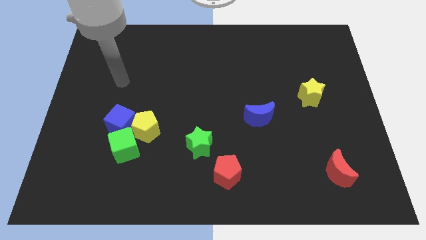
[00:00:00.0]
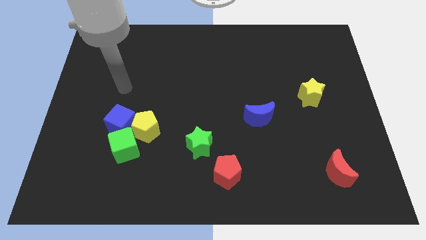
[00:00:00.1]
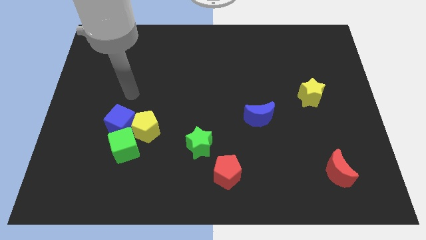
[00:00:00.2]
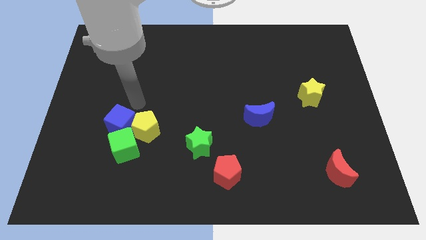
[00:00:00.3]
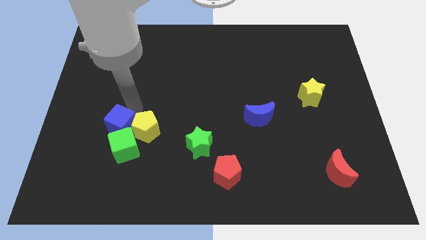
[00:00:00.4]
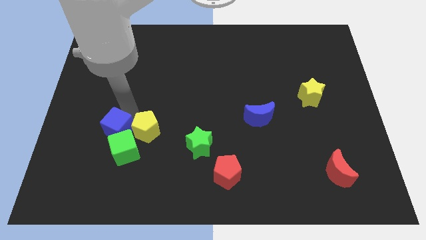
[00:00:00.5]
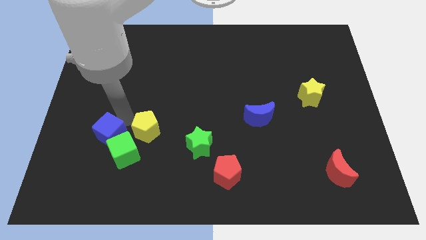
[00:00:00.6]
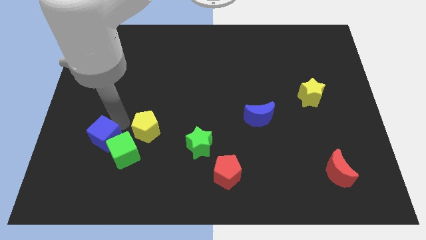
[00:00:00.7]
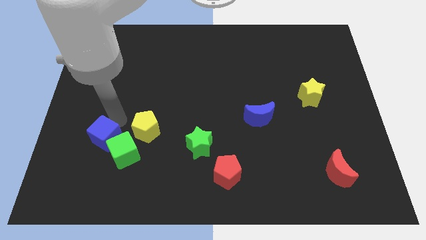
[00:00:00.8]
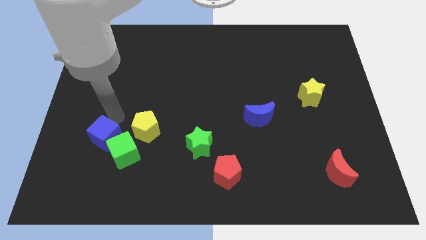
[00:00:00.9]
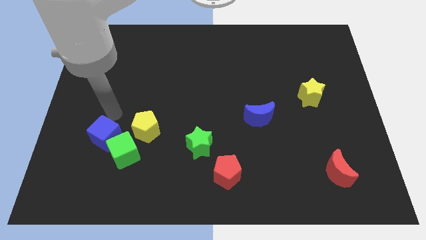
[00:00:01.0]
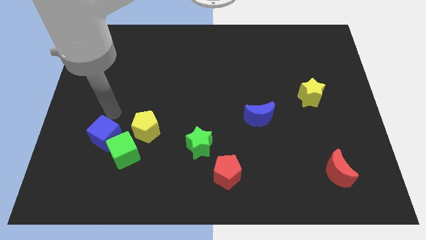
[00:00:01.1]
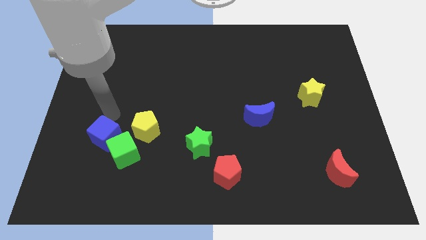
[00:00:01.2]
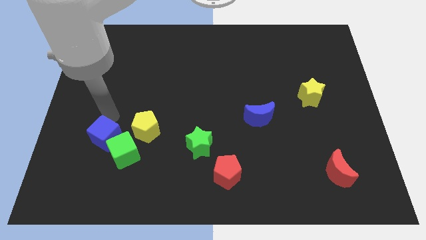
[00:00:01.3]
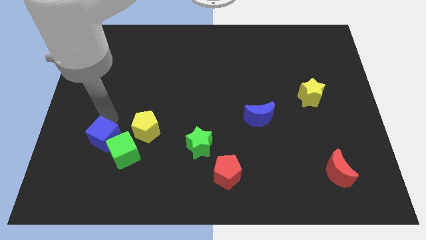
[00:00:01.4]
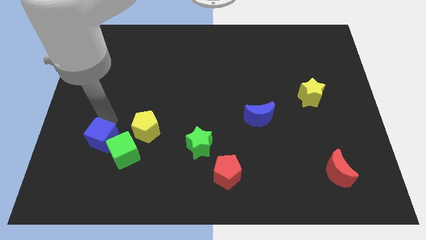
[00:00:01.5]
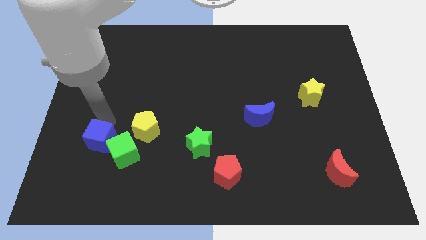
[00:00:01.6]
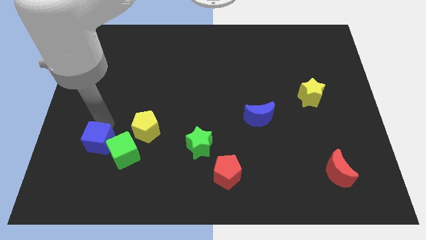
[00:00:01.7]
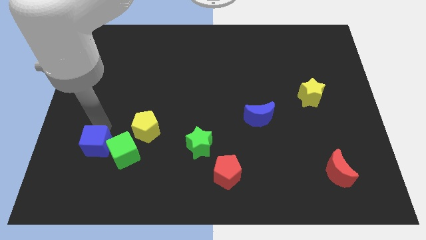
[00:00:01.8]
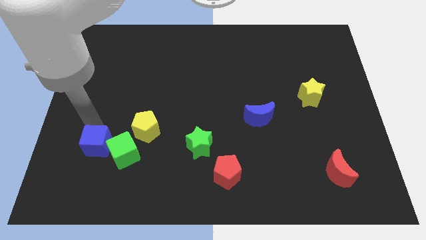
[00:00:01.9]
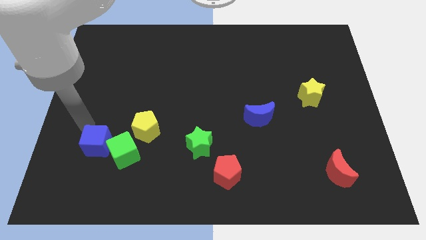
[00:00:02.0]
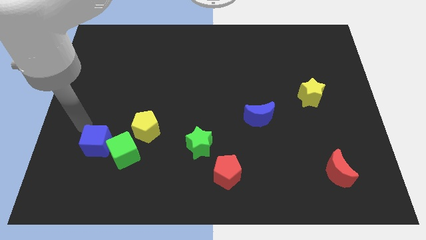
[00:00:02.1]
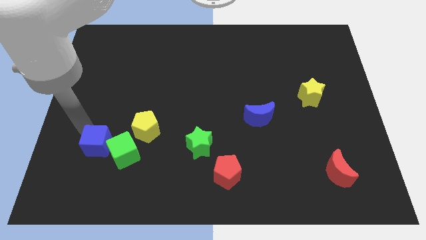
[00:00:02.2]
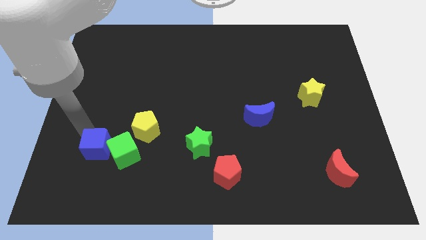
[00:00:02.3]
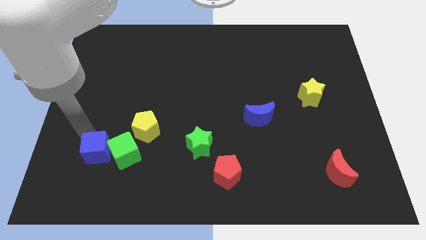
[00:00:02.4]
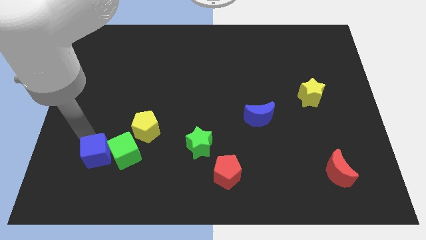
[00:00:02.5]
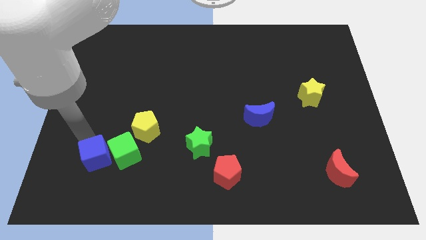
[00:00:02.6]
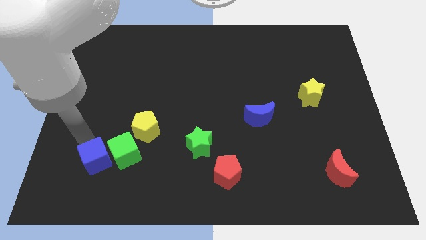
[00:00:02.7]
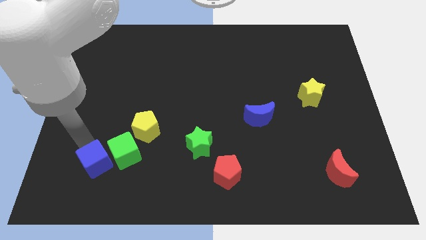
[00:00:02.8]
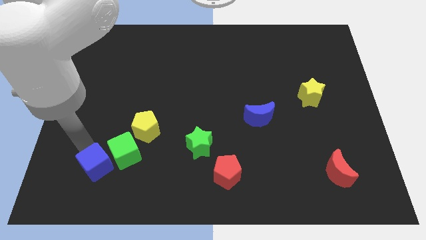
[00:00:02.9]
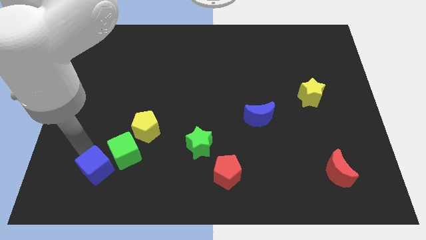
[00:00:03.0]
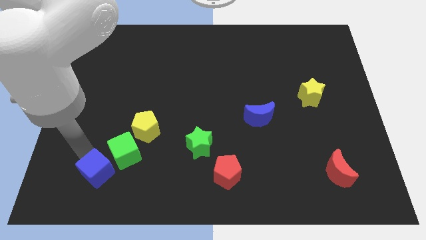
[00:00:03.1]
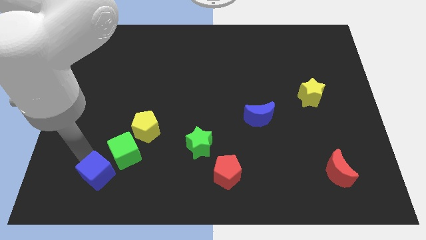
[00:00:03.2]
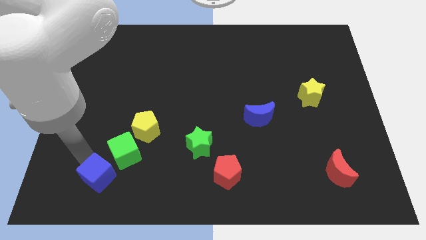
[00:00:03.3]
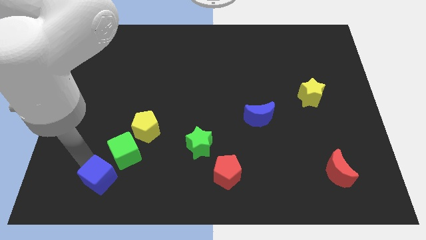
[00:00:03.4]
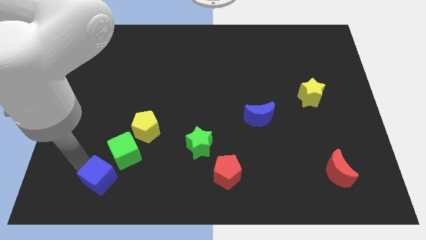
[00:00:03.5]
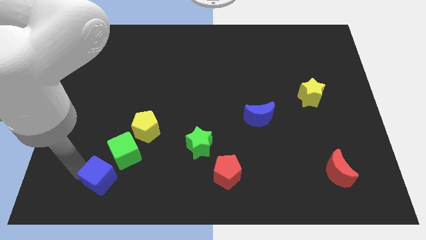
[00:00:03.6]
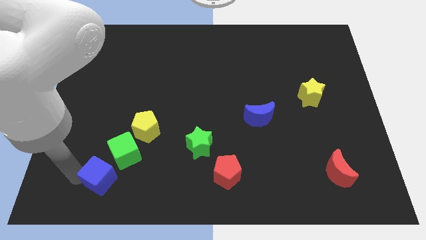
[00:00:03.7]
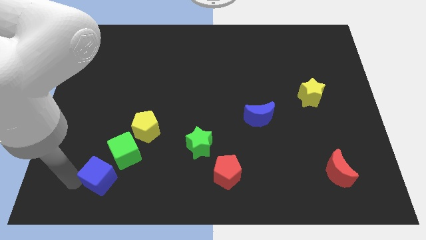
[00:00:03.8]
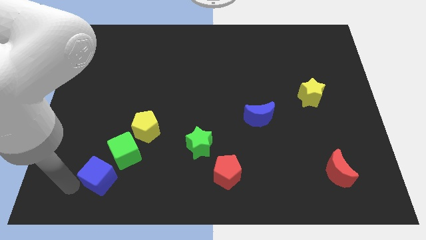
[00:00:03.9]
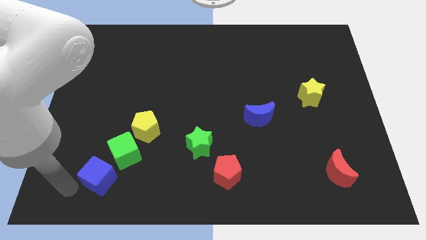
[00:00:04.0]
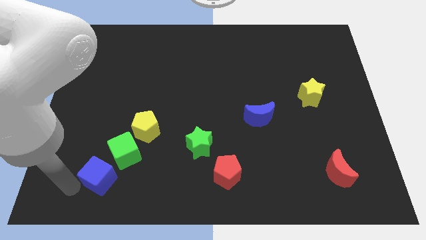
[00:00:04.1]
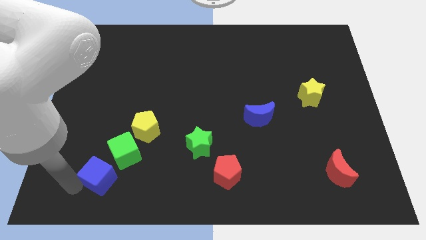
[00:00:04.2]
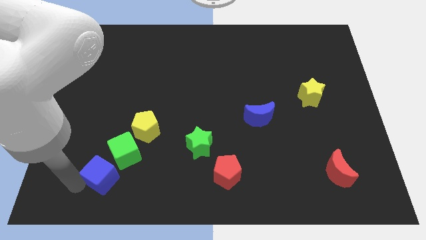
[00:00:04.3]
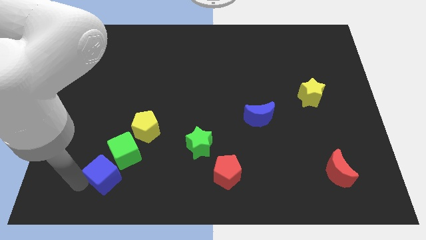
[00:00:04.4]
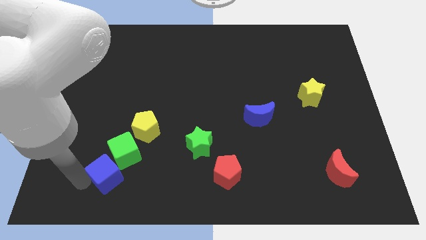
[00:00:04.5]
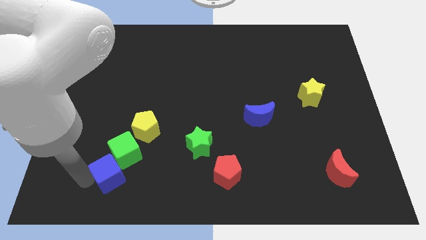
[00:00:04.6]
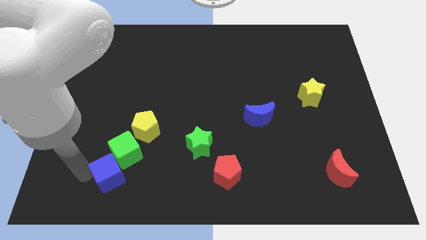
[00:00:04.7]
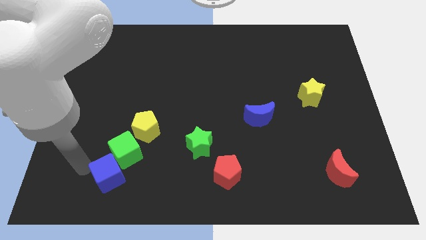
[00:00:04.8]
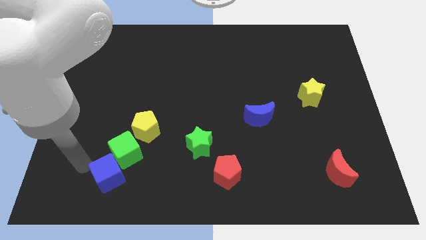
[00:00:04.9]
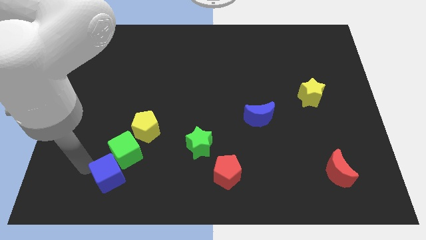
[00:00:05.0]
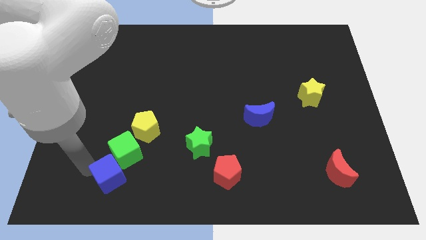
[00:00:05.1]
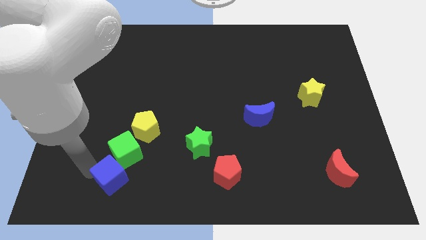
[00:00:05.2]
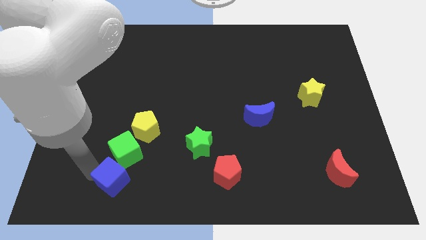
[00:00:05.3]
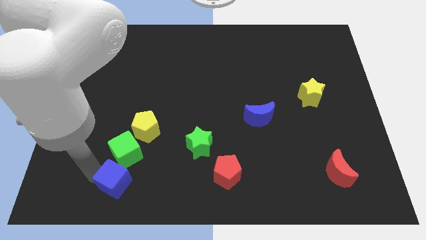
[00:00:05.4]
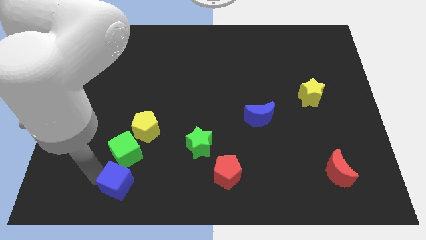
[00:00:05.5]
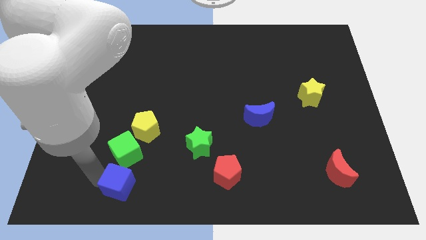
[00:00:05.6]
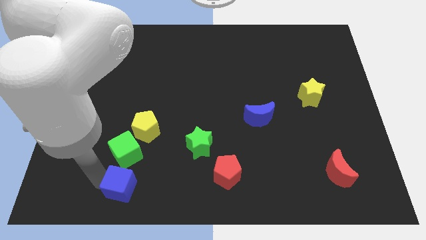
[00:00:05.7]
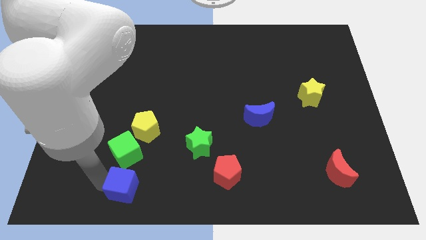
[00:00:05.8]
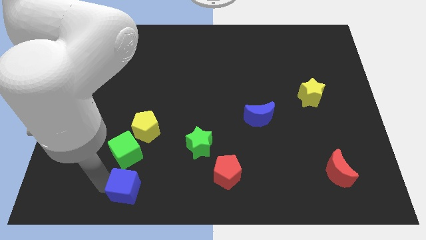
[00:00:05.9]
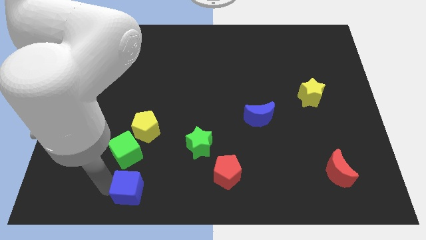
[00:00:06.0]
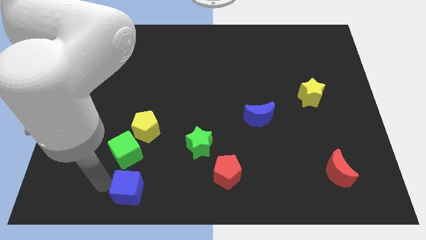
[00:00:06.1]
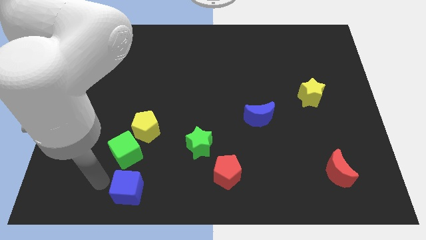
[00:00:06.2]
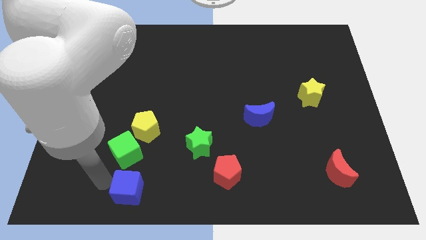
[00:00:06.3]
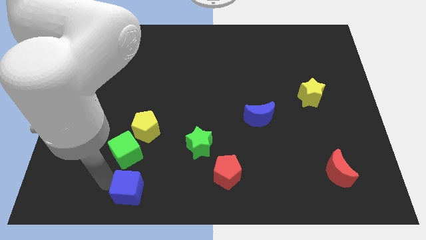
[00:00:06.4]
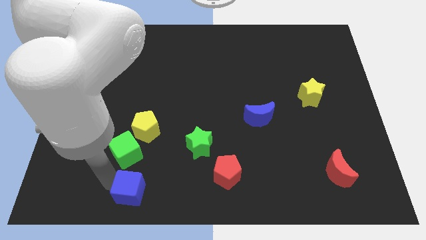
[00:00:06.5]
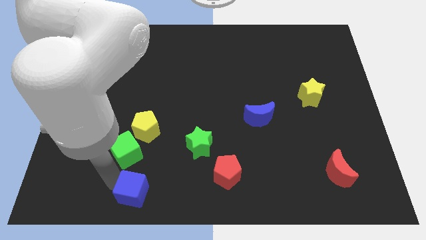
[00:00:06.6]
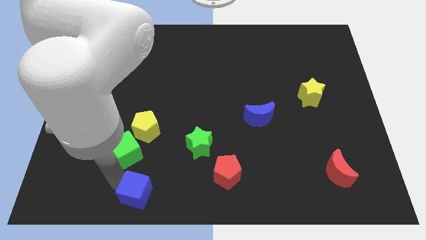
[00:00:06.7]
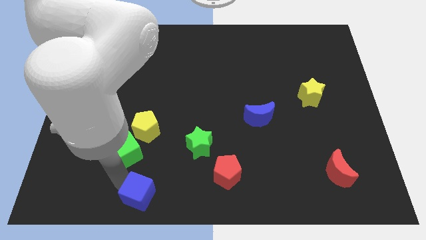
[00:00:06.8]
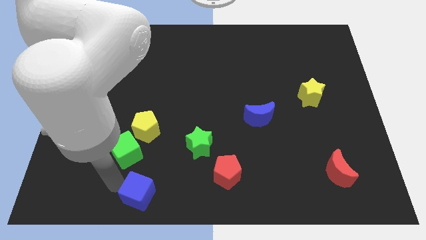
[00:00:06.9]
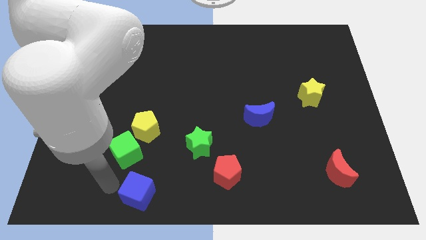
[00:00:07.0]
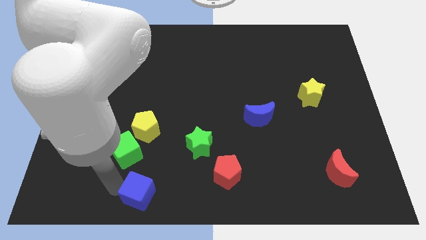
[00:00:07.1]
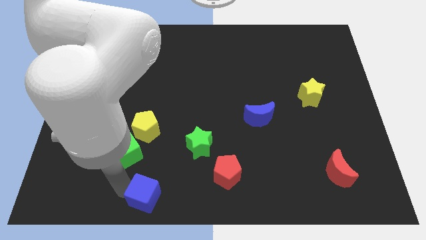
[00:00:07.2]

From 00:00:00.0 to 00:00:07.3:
push the blue cube to the bottom side
